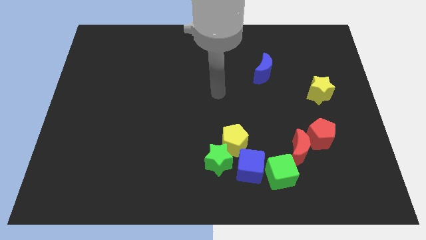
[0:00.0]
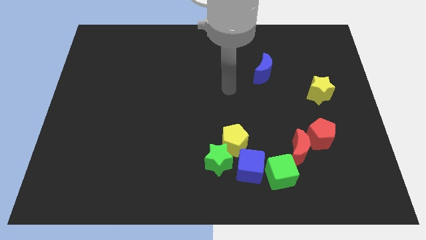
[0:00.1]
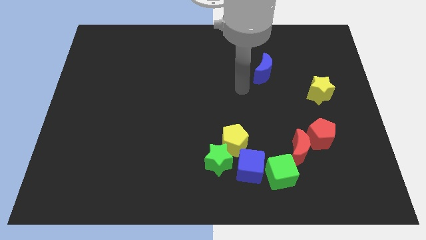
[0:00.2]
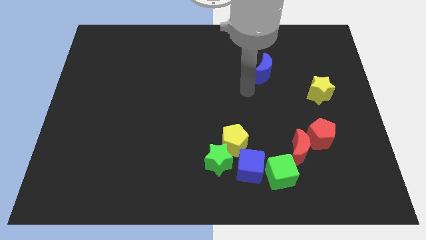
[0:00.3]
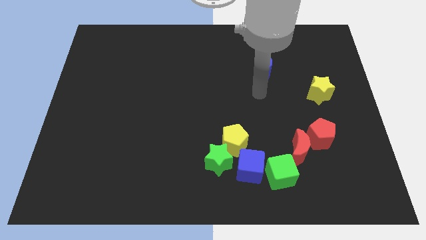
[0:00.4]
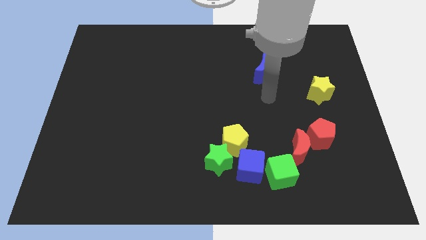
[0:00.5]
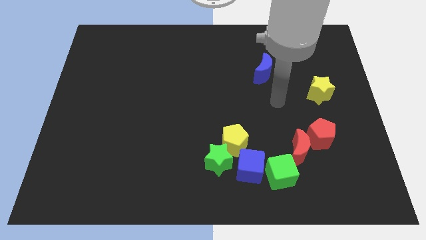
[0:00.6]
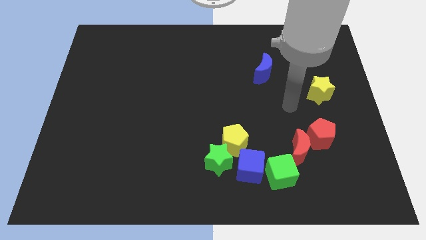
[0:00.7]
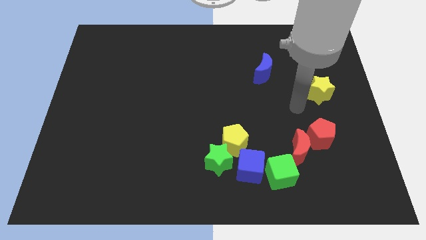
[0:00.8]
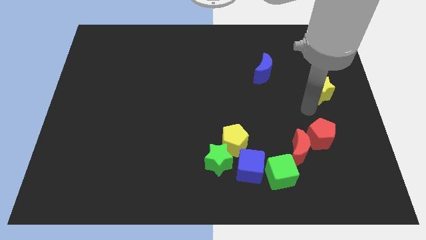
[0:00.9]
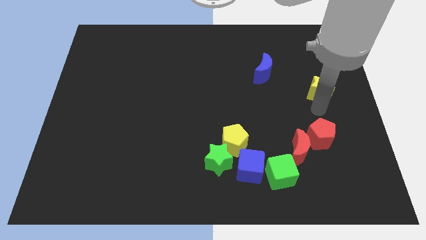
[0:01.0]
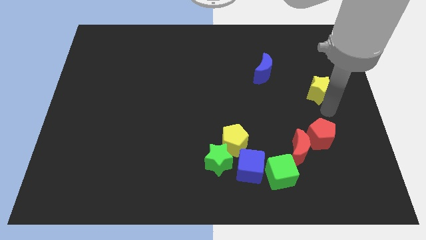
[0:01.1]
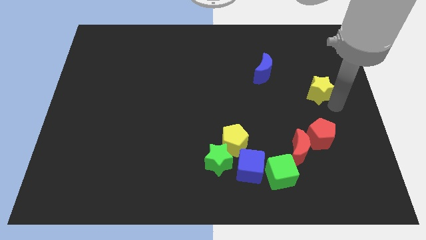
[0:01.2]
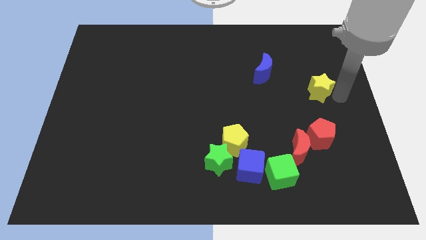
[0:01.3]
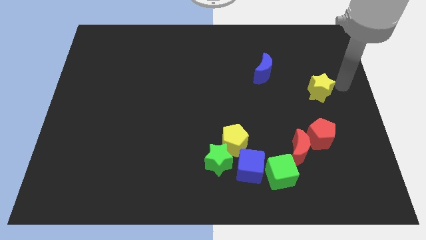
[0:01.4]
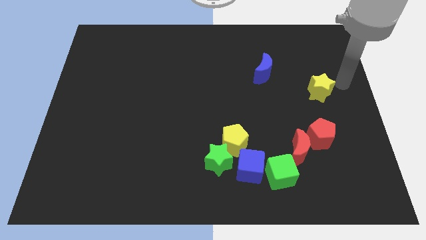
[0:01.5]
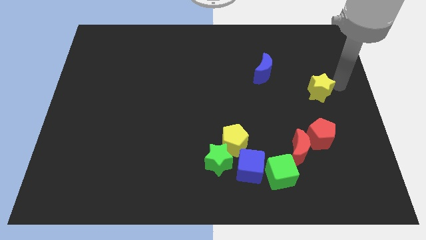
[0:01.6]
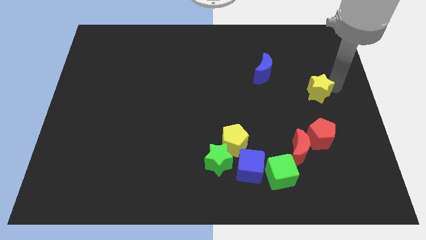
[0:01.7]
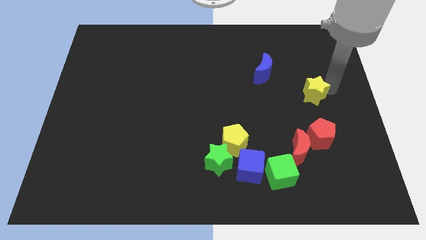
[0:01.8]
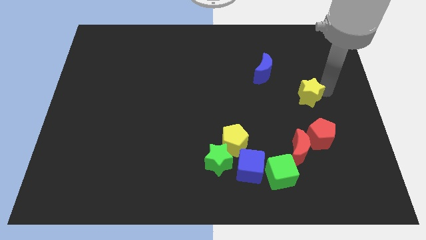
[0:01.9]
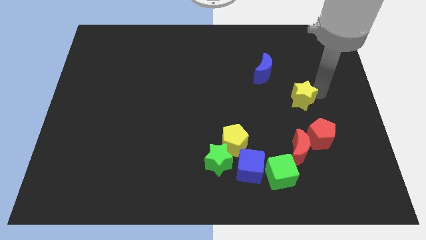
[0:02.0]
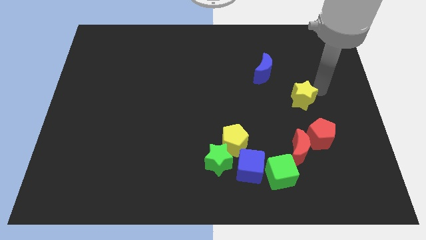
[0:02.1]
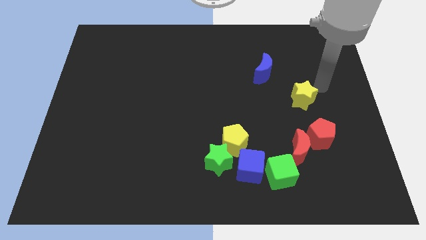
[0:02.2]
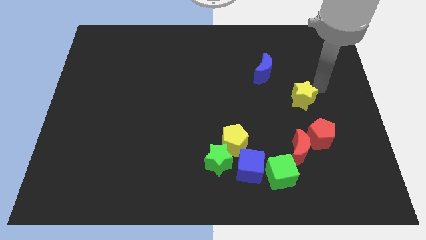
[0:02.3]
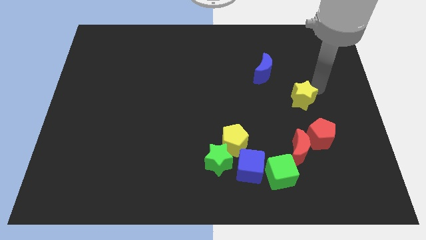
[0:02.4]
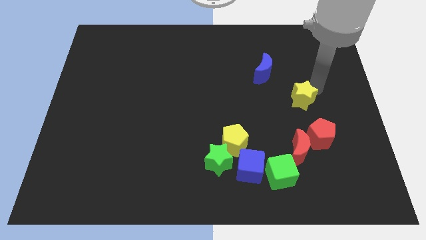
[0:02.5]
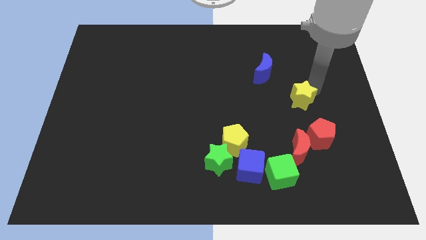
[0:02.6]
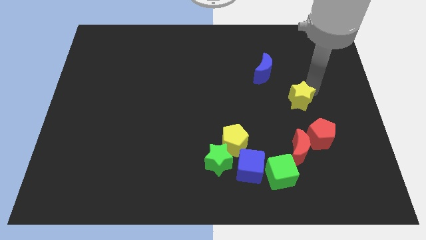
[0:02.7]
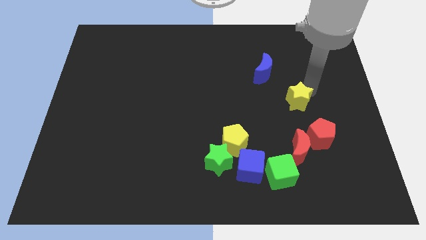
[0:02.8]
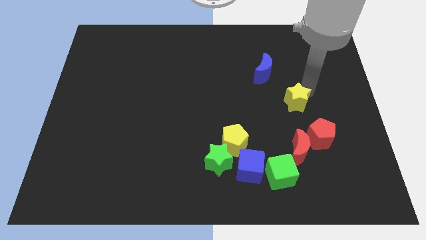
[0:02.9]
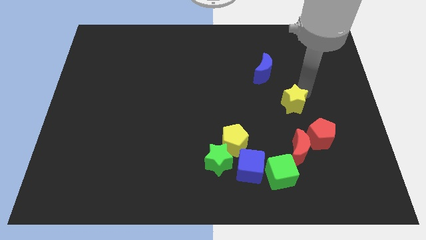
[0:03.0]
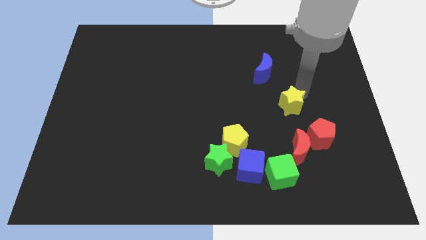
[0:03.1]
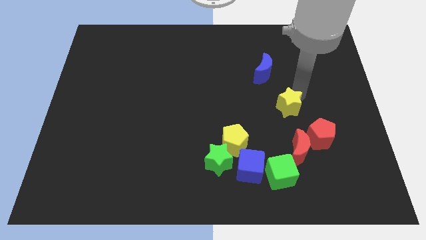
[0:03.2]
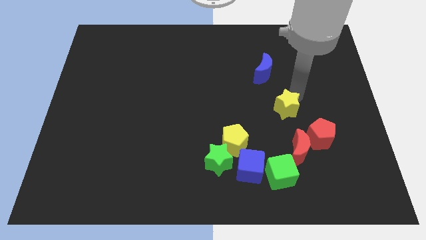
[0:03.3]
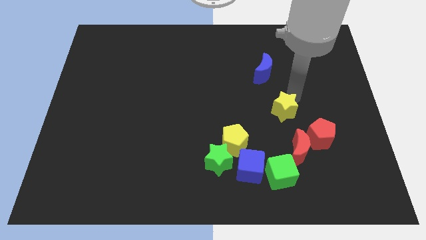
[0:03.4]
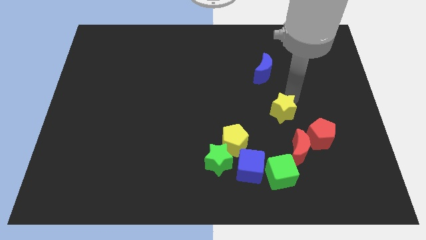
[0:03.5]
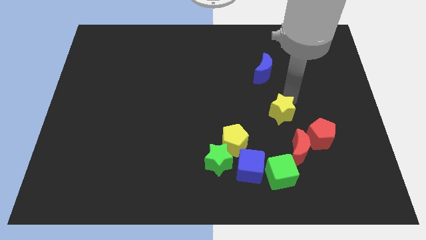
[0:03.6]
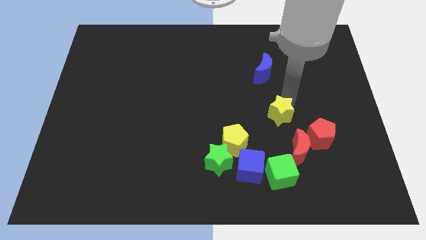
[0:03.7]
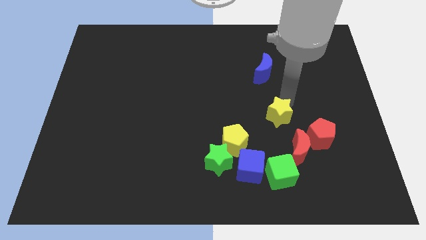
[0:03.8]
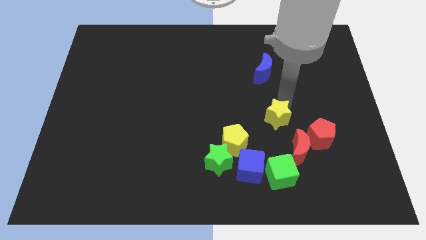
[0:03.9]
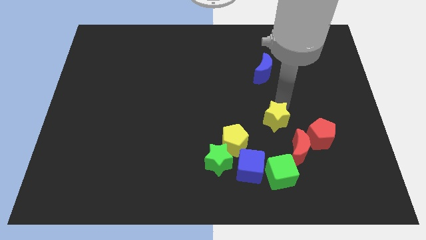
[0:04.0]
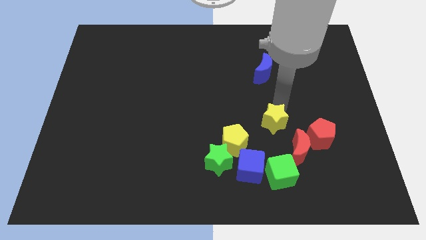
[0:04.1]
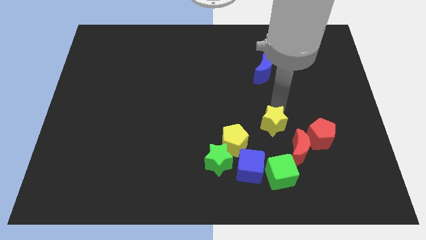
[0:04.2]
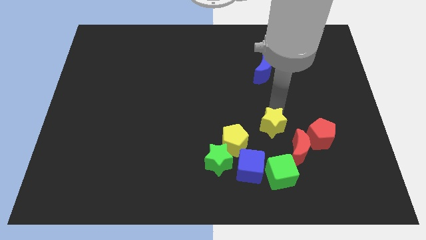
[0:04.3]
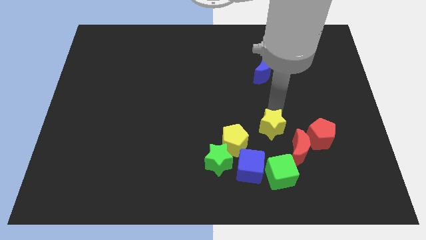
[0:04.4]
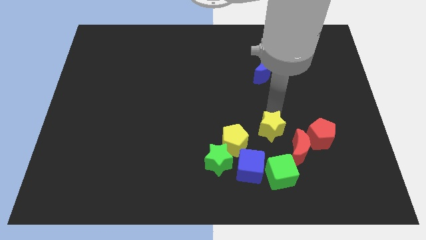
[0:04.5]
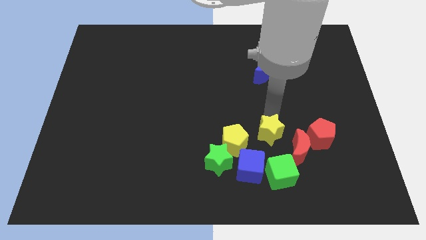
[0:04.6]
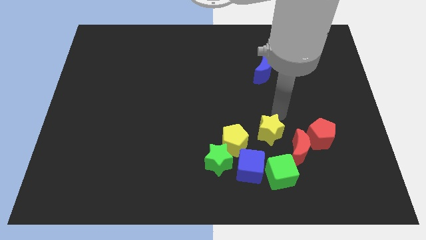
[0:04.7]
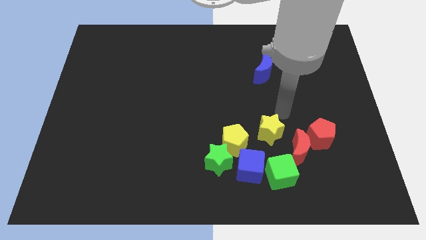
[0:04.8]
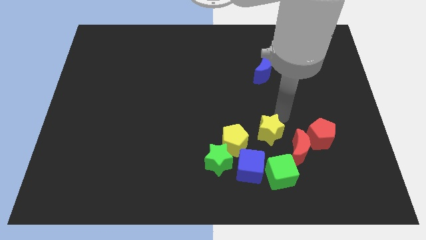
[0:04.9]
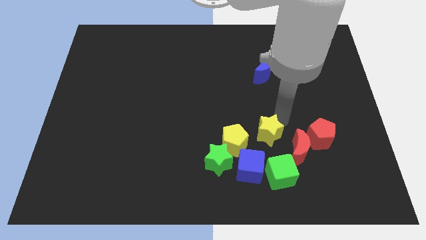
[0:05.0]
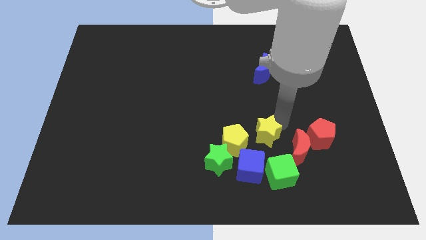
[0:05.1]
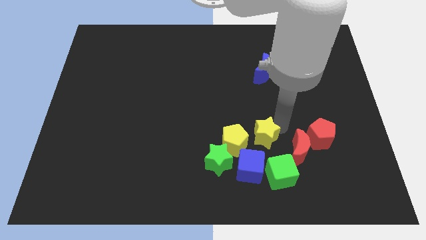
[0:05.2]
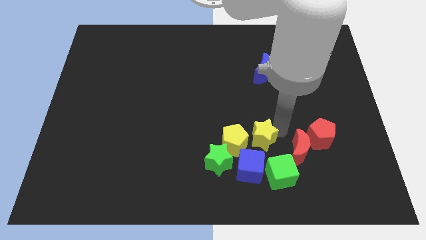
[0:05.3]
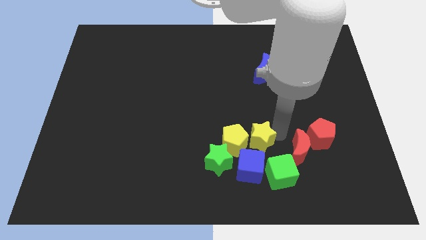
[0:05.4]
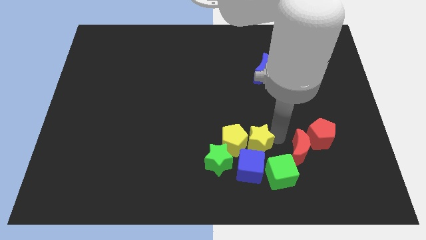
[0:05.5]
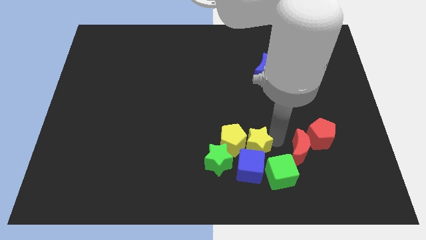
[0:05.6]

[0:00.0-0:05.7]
push the yellow star towards the blue cube

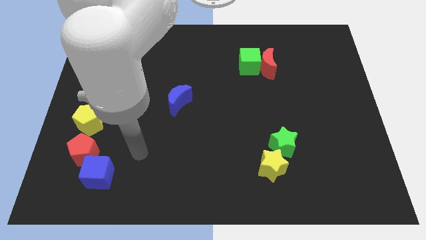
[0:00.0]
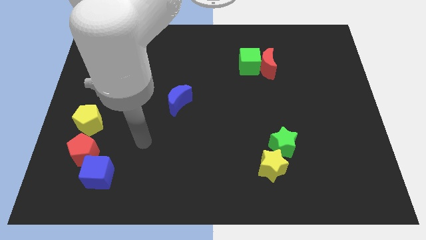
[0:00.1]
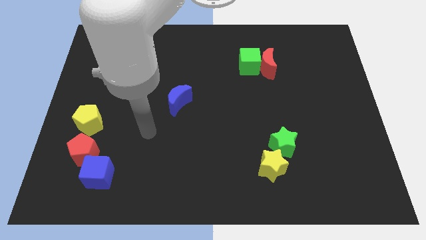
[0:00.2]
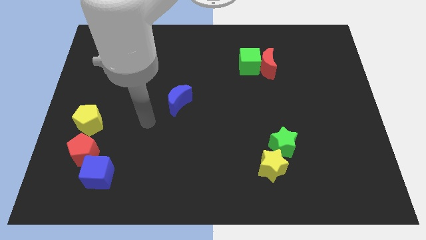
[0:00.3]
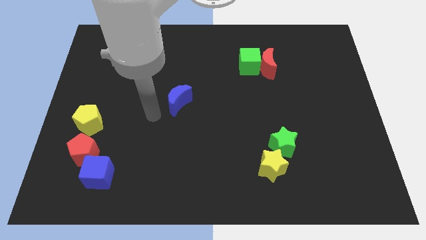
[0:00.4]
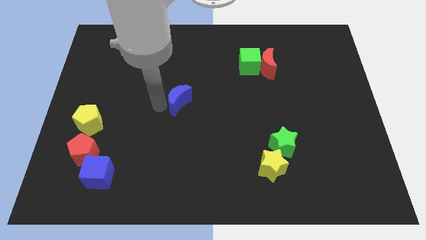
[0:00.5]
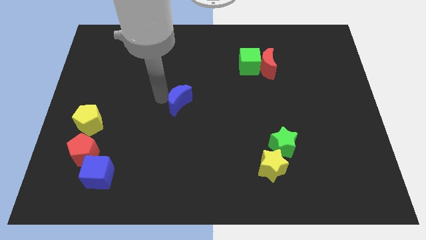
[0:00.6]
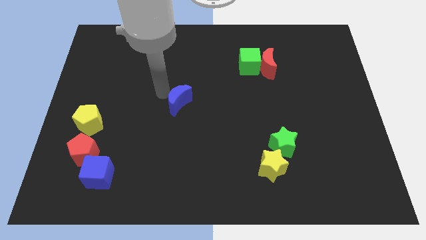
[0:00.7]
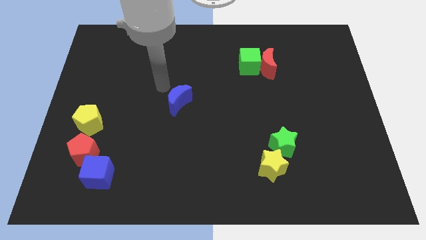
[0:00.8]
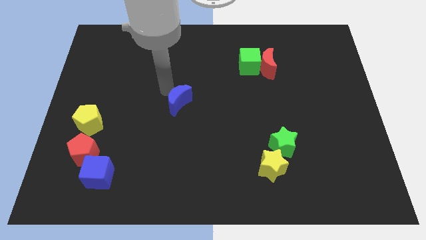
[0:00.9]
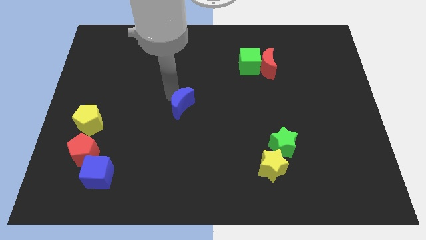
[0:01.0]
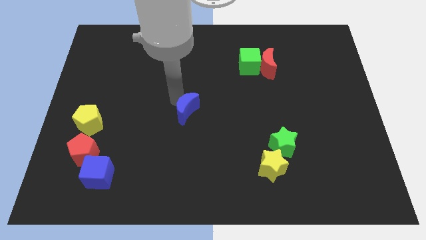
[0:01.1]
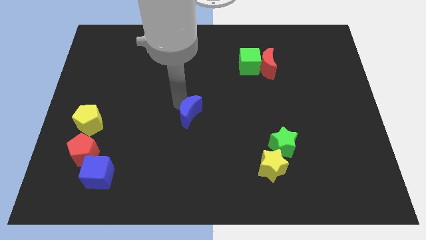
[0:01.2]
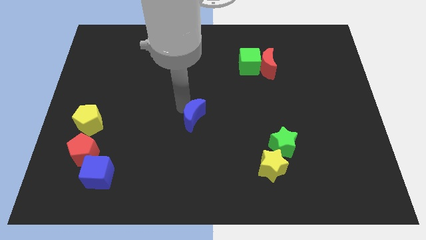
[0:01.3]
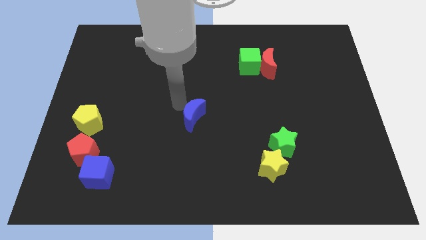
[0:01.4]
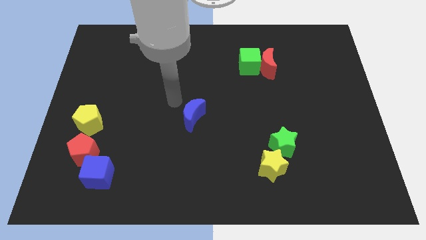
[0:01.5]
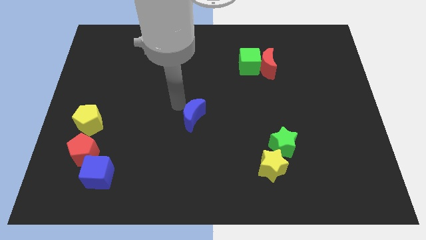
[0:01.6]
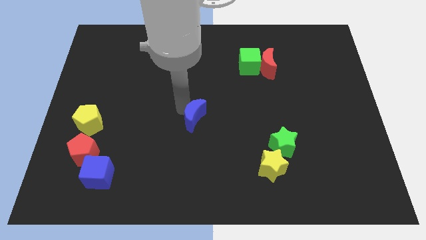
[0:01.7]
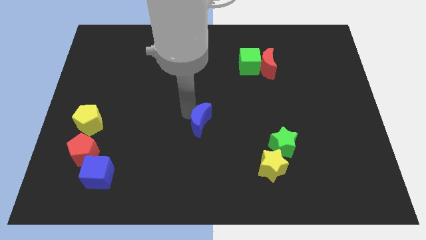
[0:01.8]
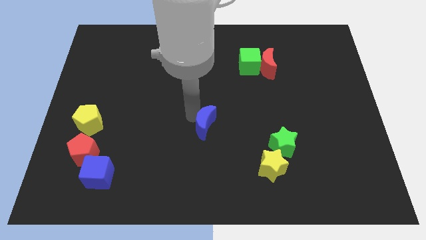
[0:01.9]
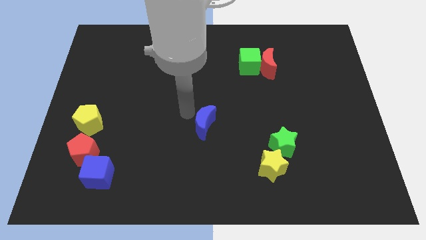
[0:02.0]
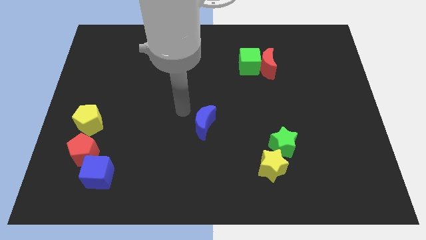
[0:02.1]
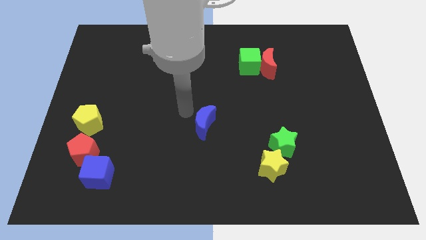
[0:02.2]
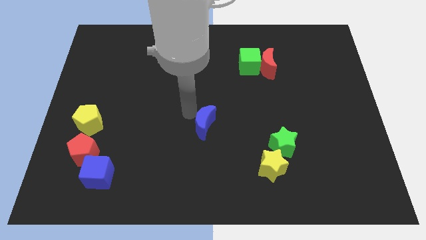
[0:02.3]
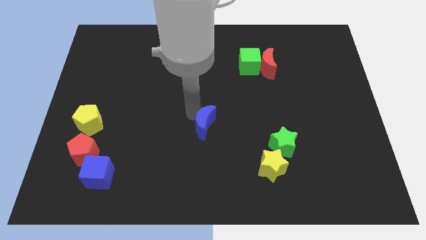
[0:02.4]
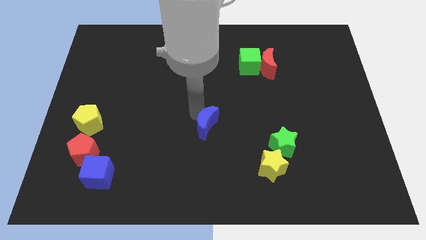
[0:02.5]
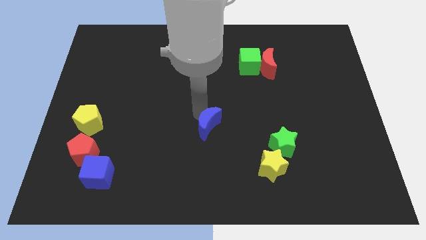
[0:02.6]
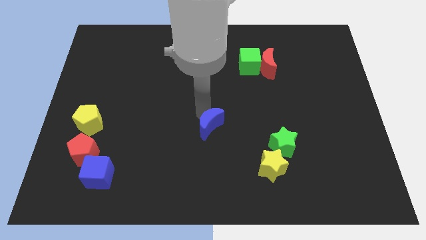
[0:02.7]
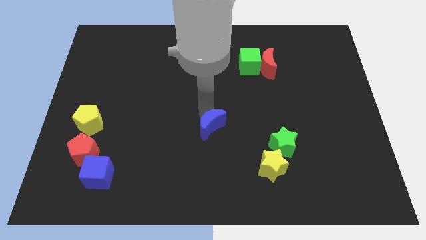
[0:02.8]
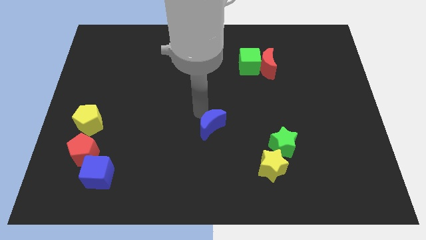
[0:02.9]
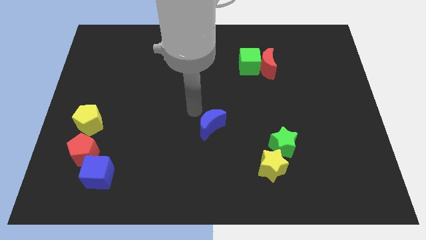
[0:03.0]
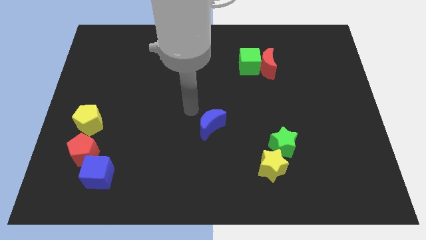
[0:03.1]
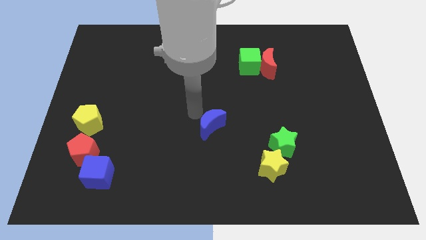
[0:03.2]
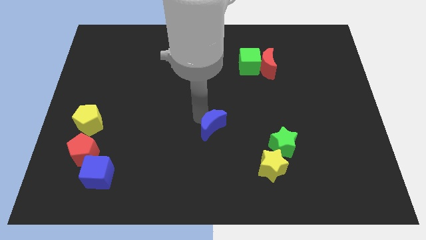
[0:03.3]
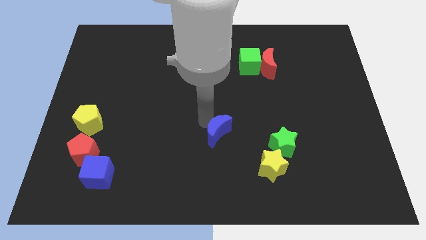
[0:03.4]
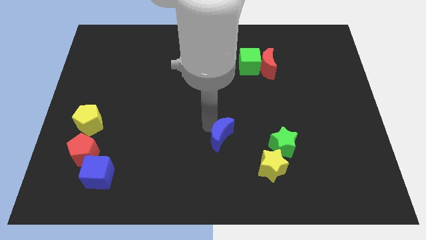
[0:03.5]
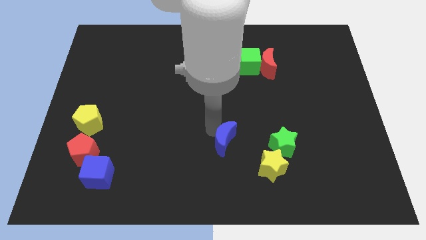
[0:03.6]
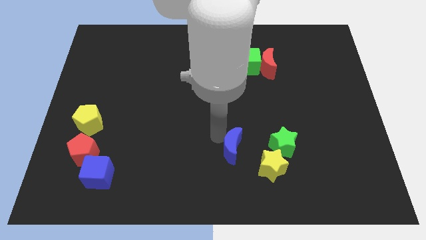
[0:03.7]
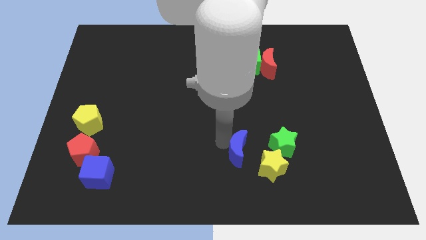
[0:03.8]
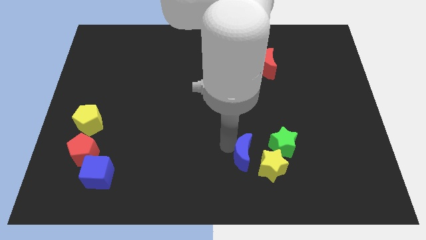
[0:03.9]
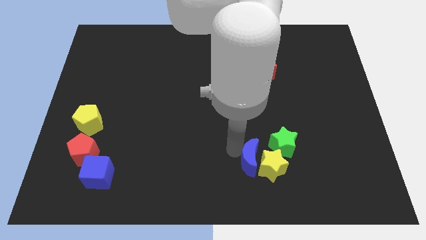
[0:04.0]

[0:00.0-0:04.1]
slide the blue moon towards the yellow star
